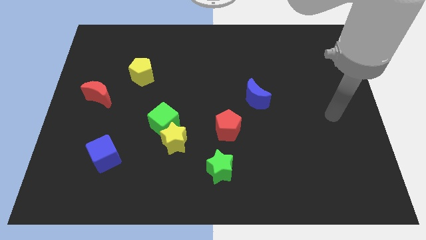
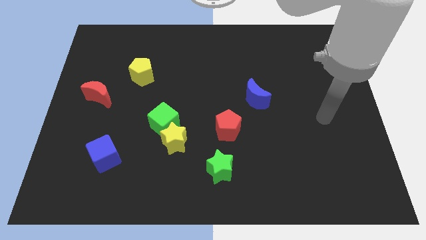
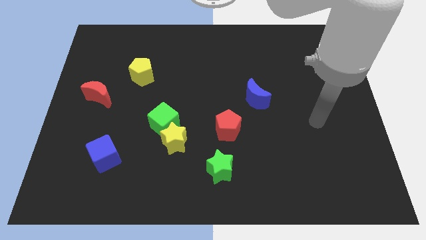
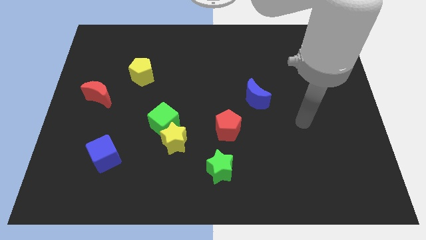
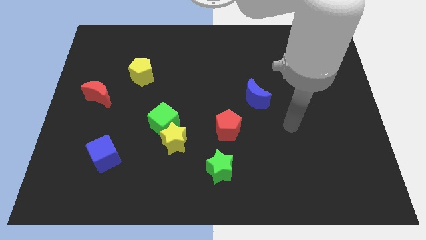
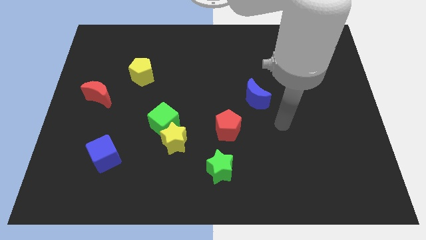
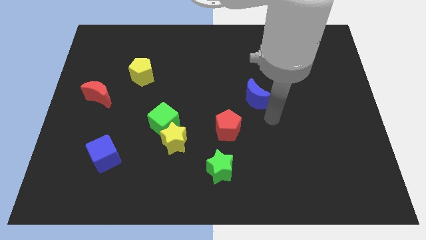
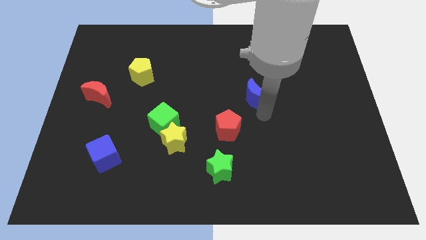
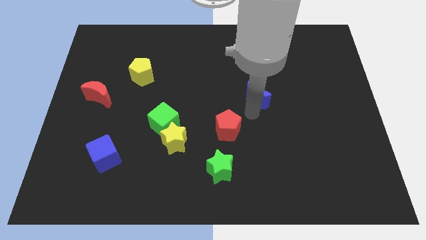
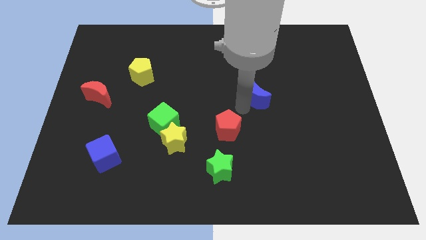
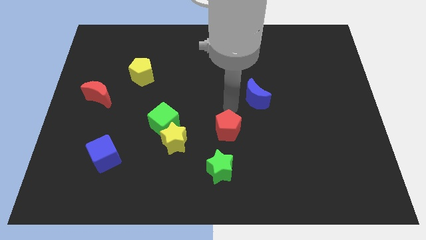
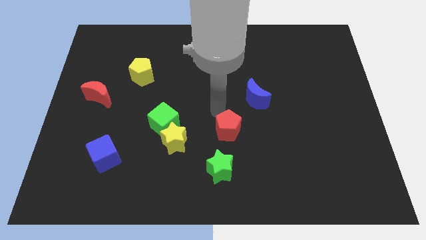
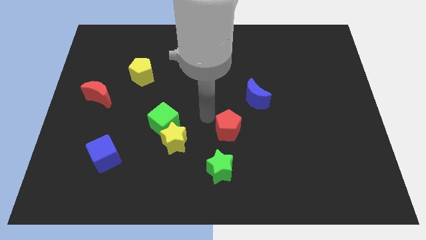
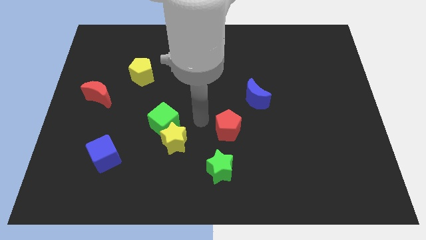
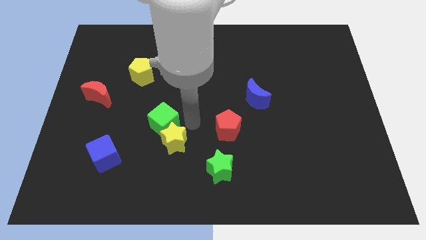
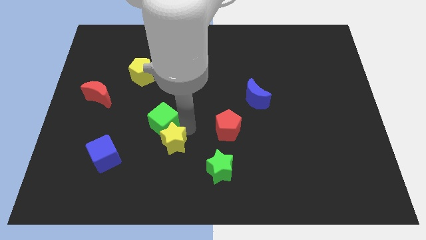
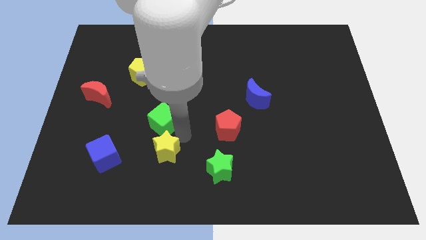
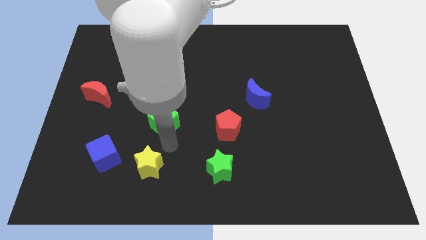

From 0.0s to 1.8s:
move the green cube away from the yellow star

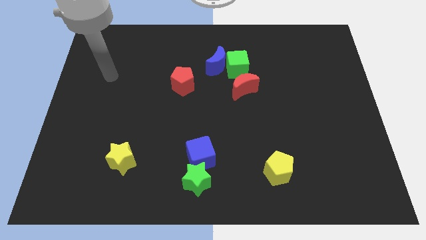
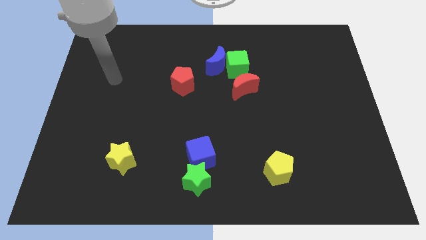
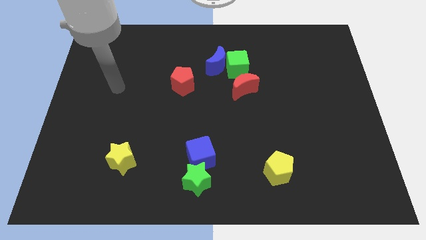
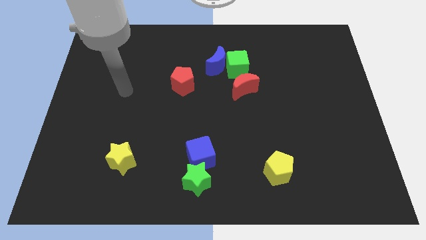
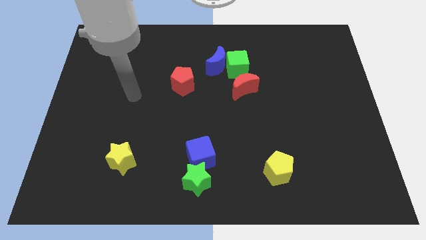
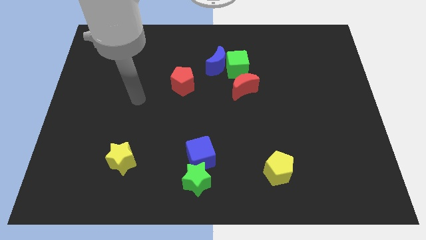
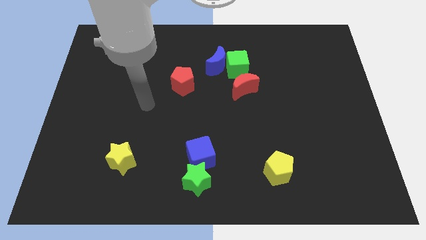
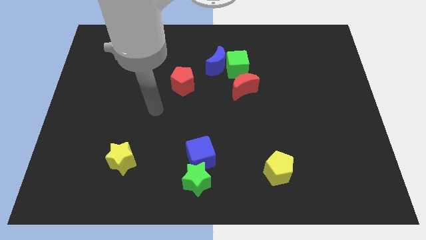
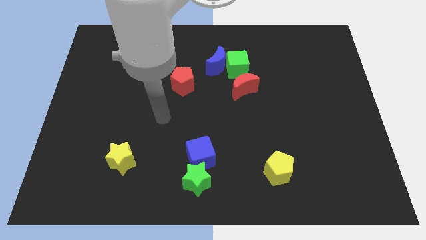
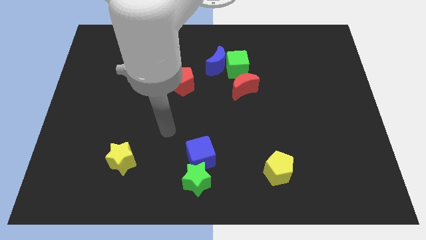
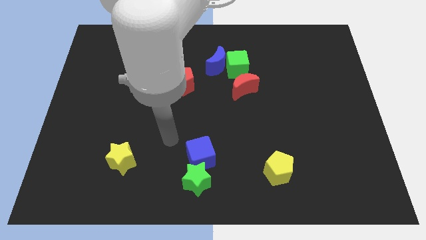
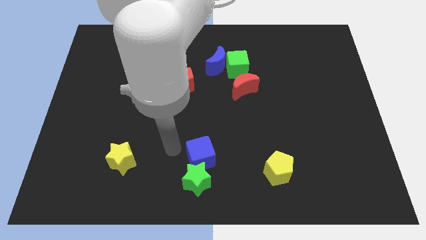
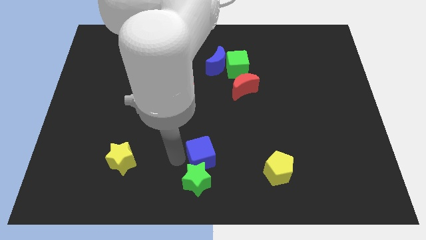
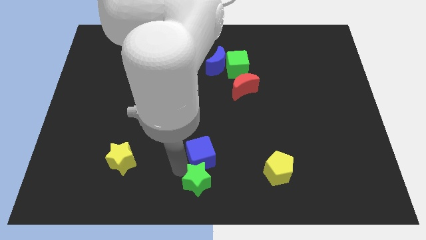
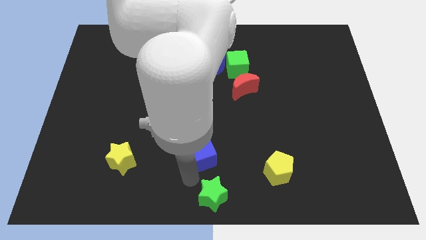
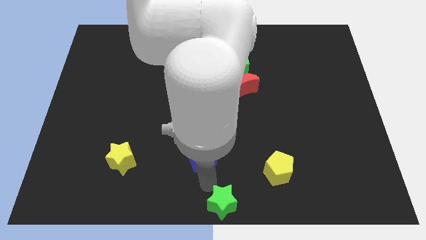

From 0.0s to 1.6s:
separate the blue cube from the green star

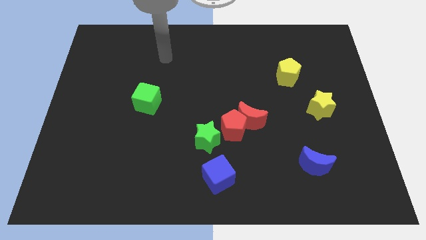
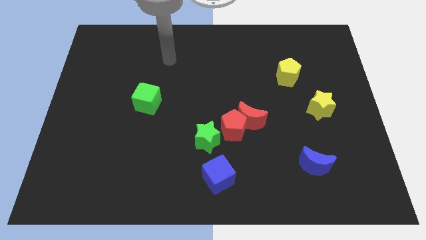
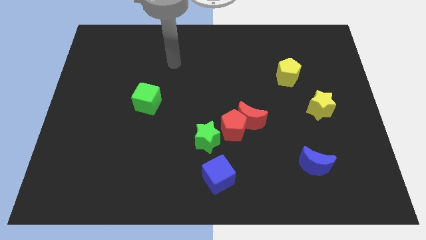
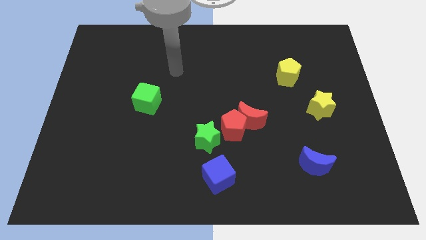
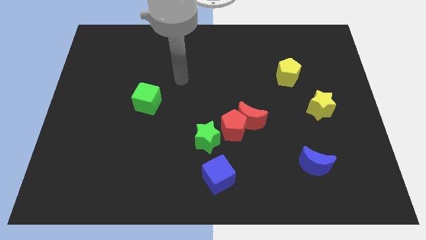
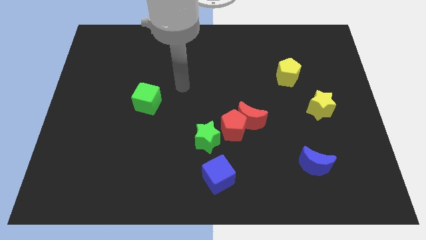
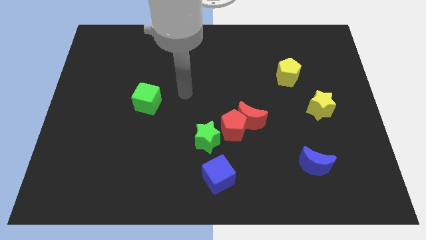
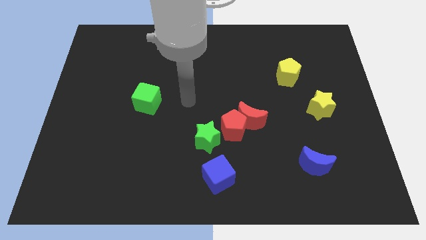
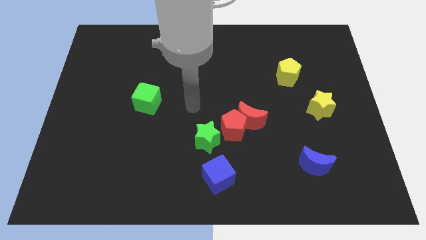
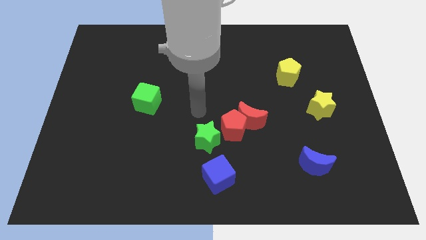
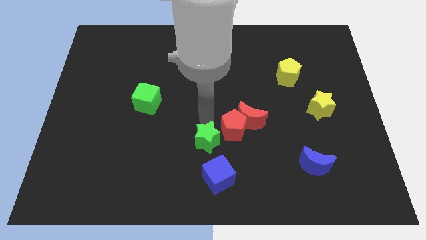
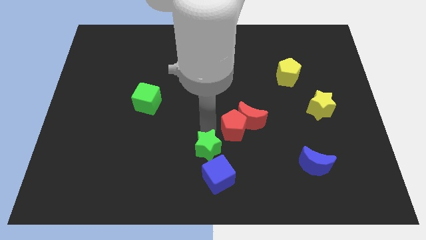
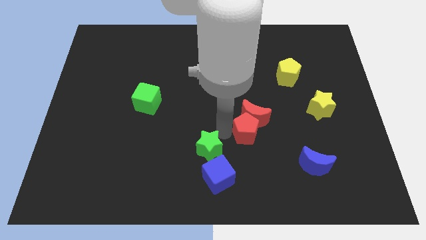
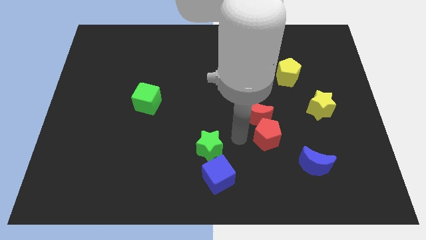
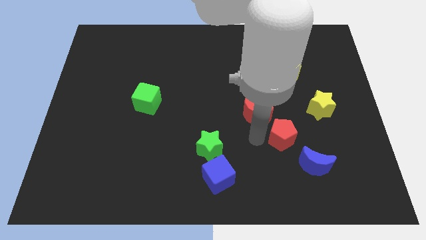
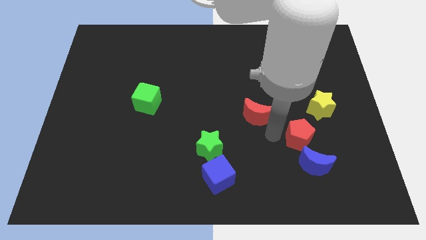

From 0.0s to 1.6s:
pull the red moon apart from the red pentagon

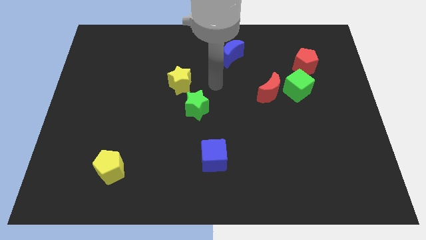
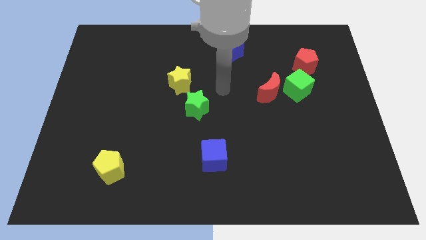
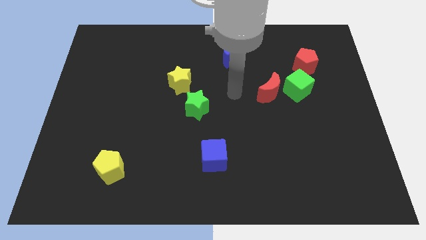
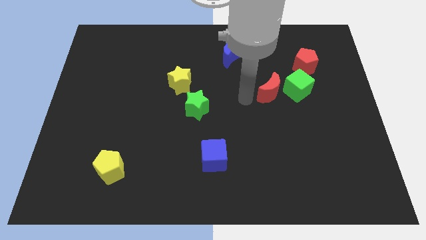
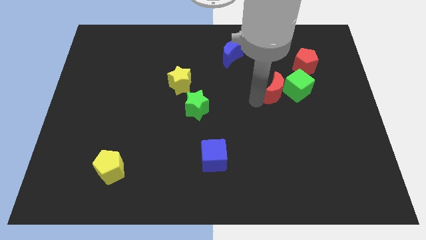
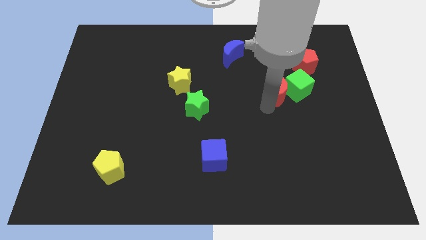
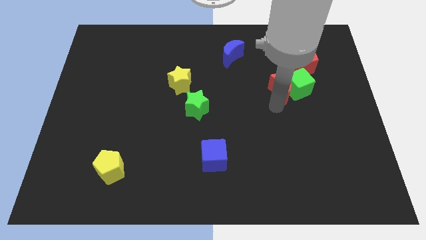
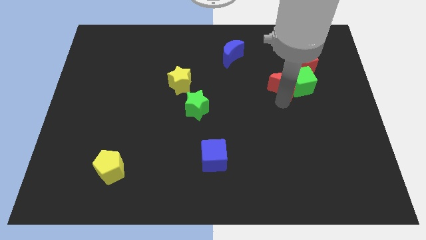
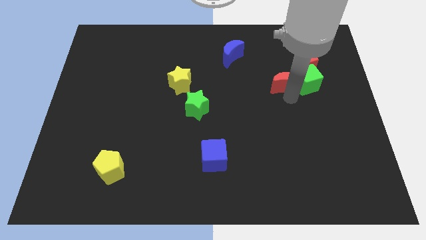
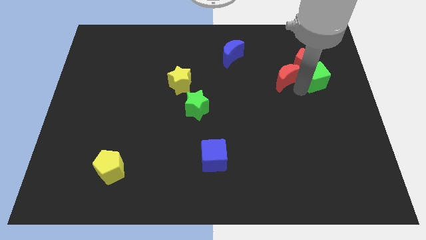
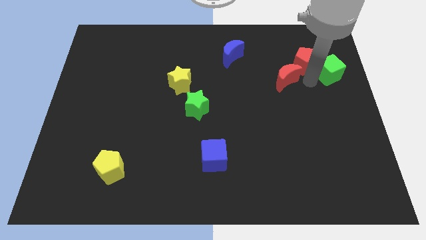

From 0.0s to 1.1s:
pull the red moon apart from the green cube

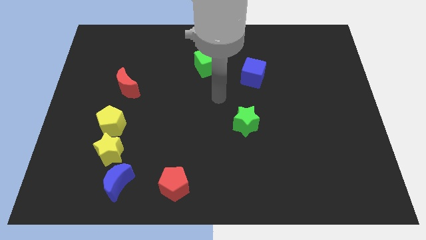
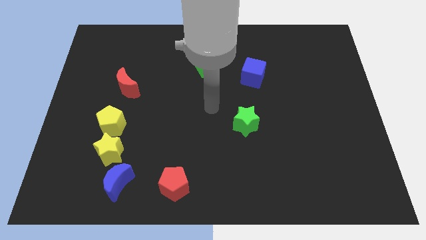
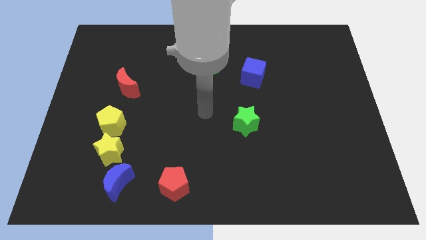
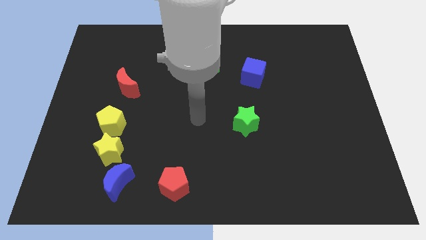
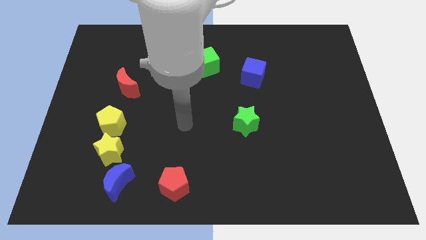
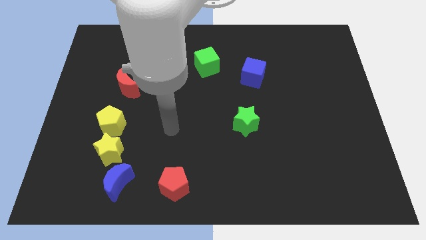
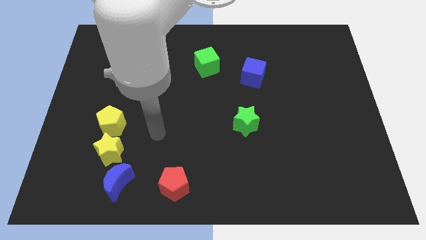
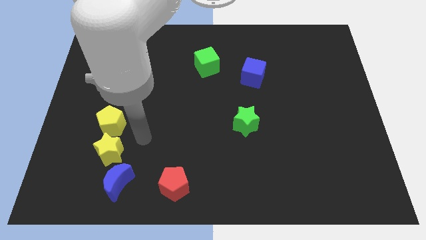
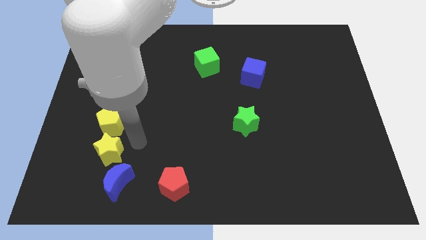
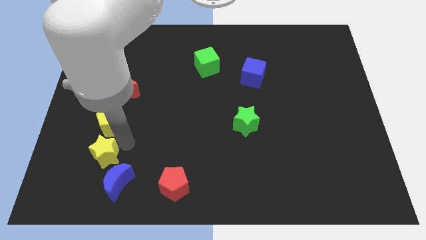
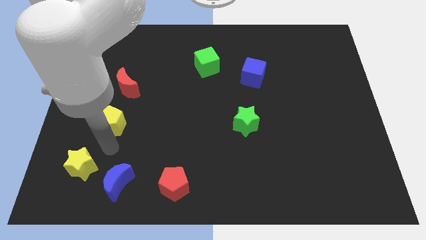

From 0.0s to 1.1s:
move the yellow pentagon away from the yellow star

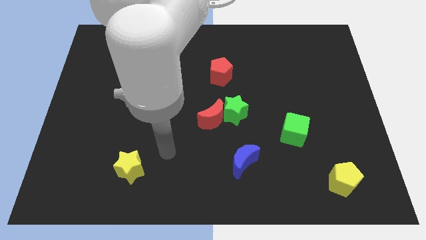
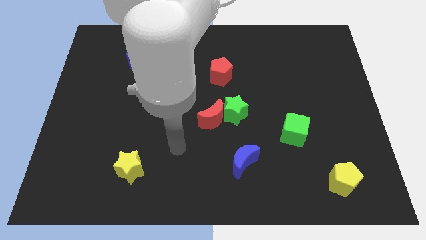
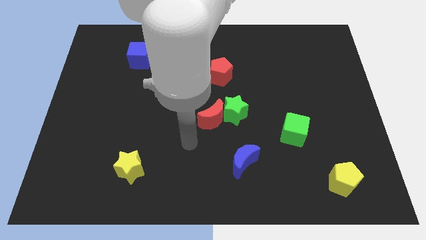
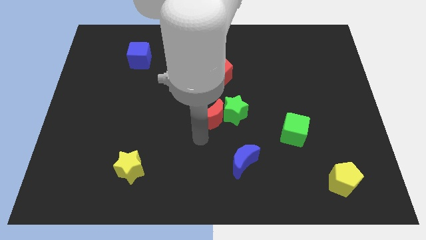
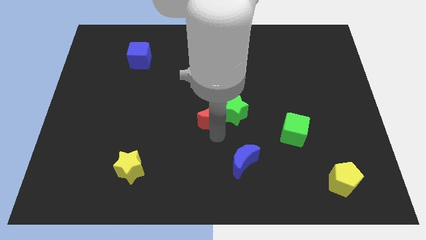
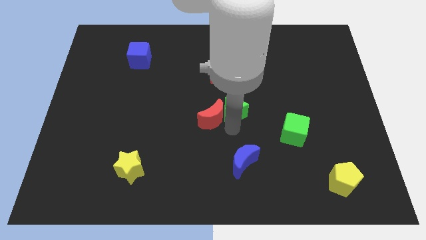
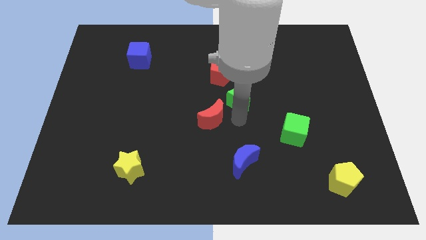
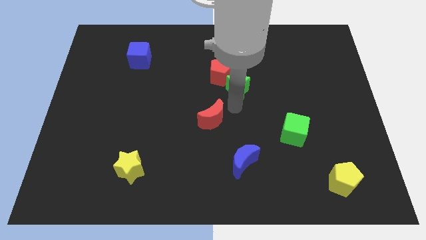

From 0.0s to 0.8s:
separate the red moon from the green star

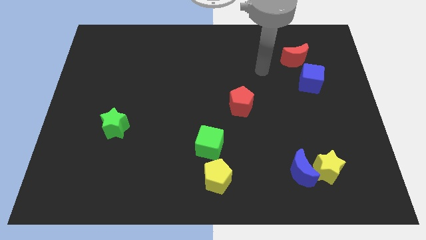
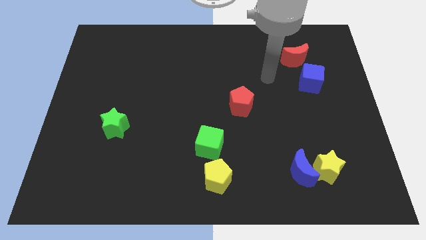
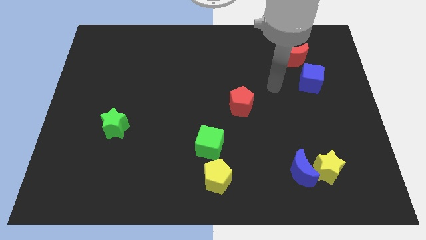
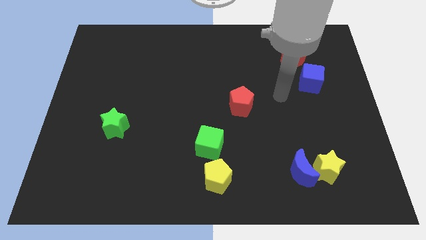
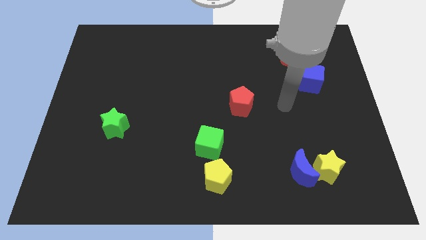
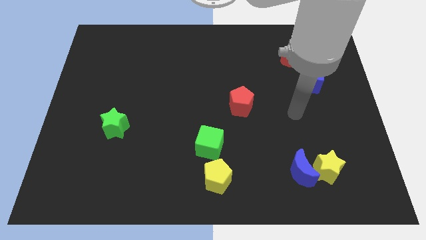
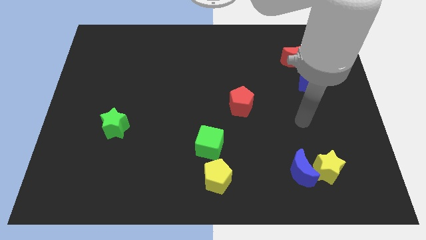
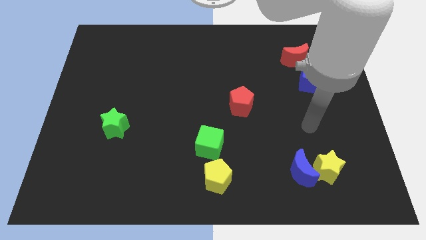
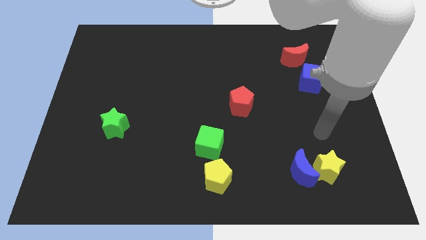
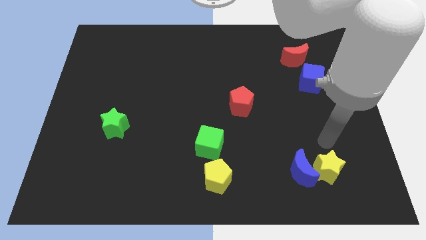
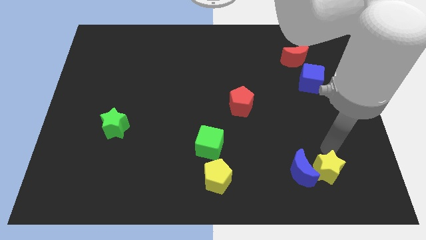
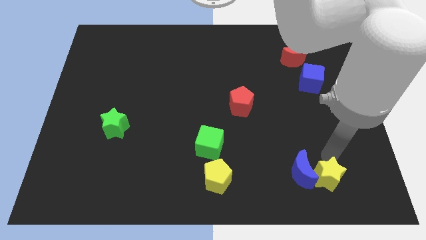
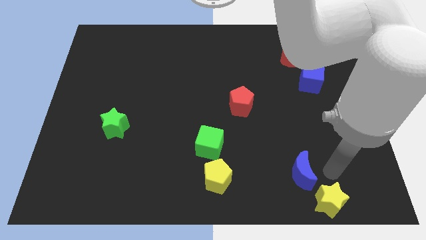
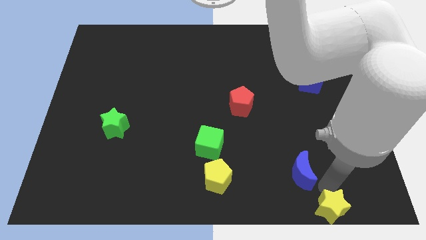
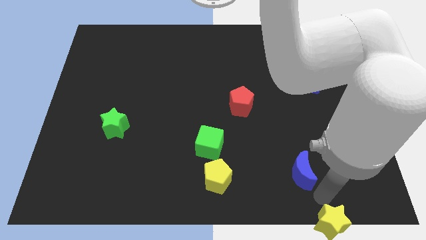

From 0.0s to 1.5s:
separate the blue moon from the yellow star
